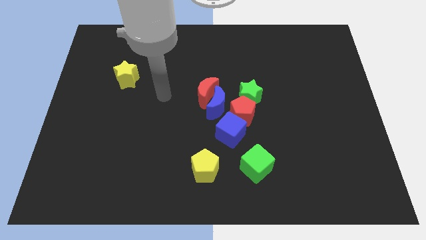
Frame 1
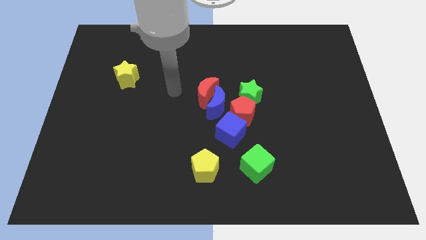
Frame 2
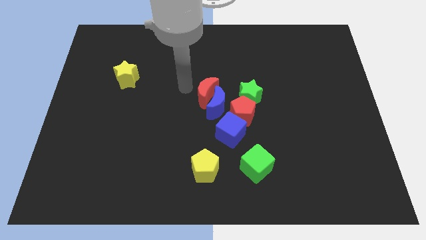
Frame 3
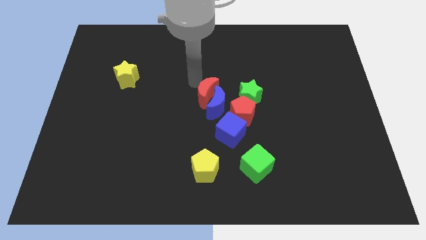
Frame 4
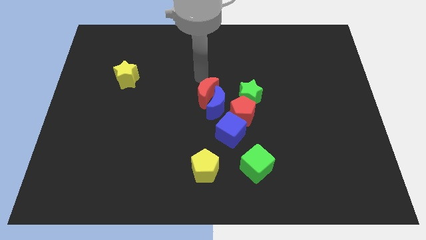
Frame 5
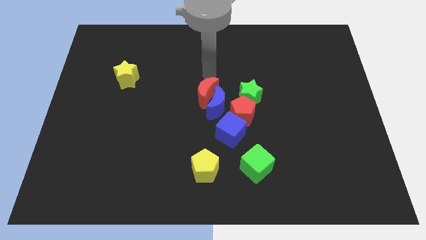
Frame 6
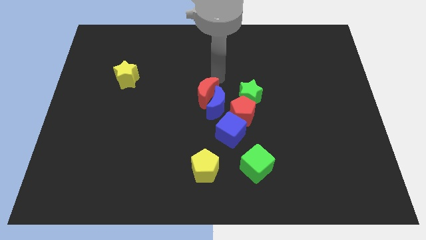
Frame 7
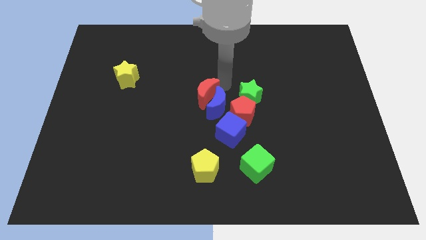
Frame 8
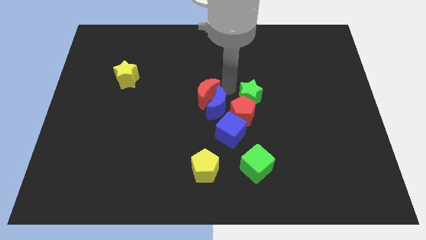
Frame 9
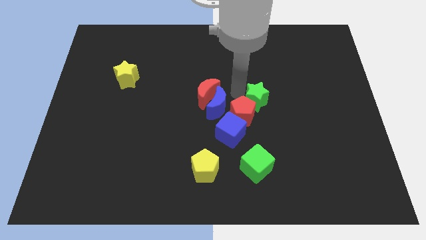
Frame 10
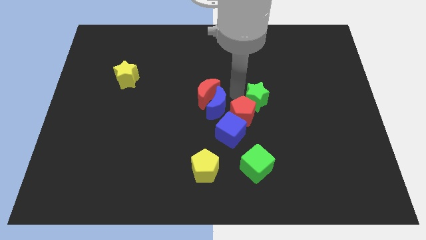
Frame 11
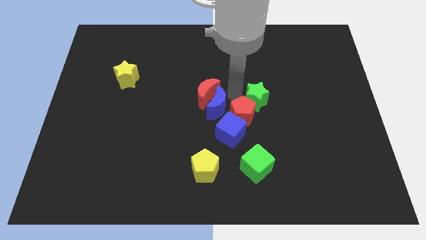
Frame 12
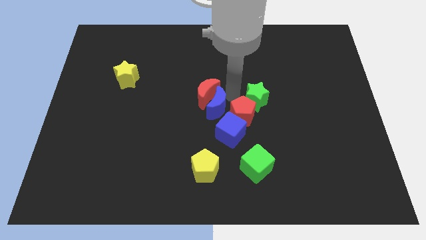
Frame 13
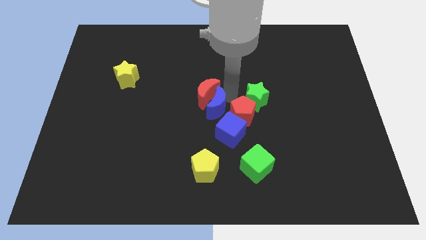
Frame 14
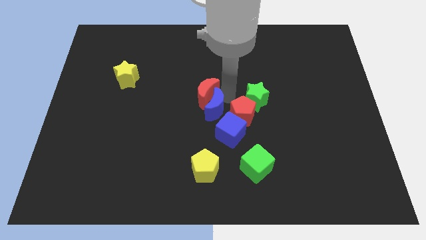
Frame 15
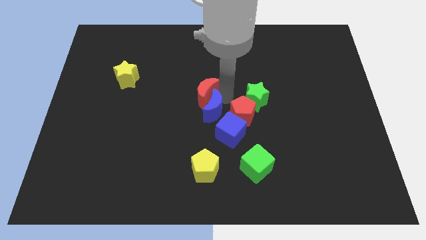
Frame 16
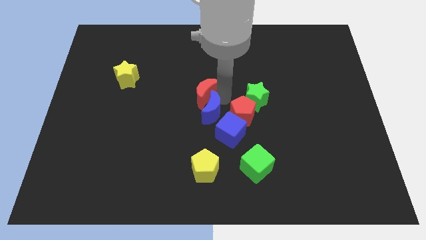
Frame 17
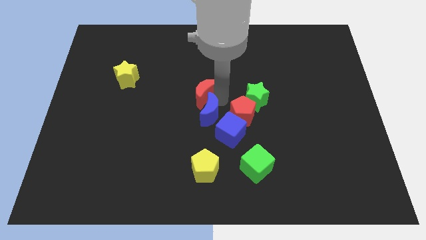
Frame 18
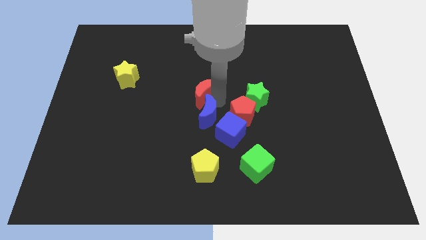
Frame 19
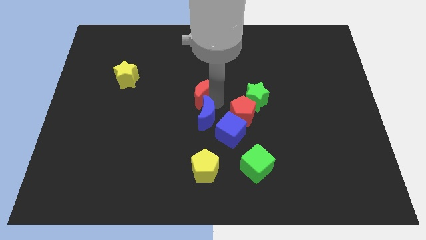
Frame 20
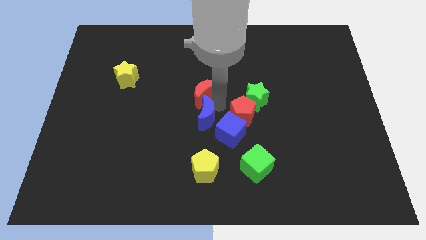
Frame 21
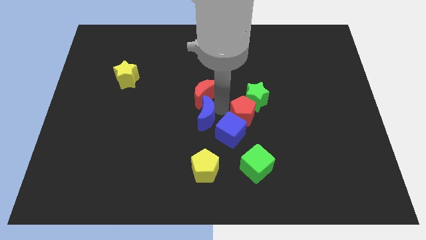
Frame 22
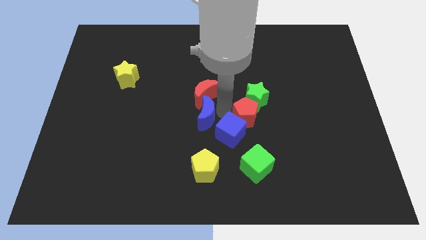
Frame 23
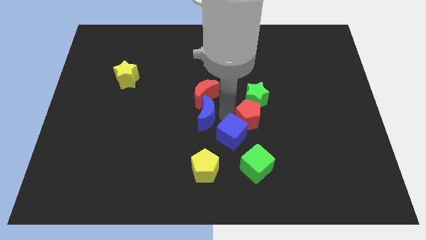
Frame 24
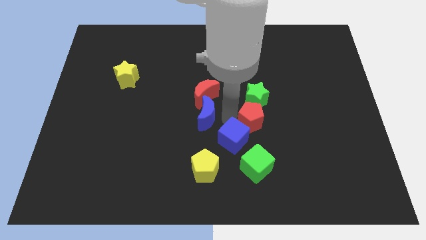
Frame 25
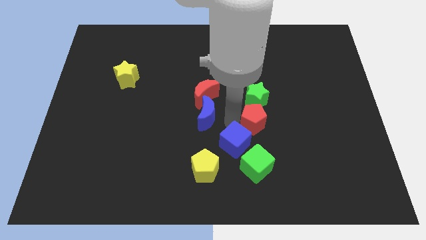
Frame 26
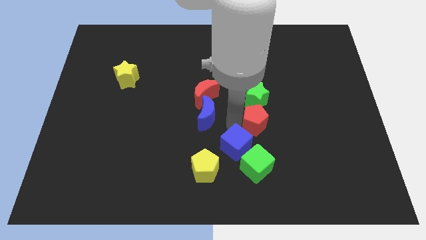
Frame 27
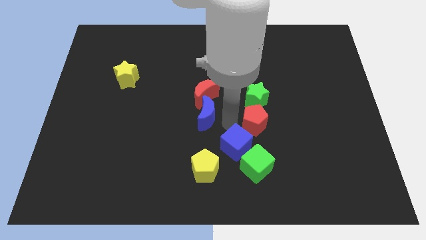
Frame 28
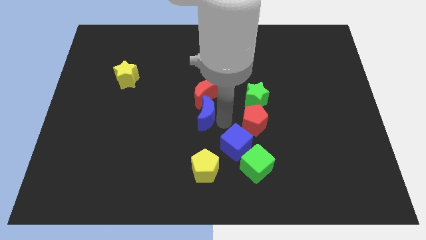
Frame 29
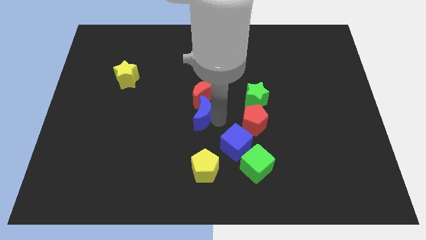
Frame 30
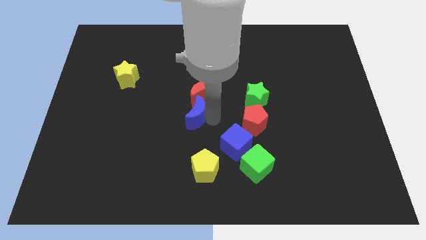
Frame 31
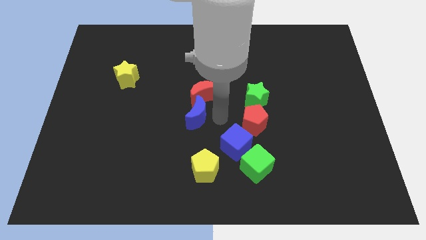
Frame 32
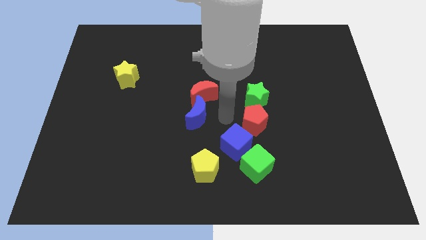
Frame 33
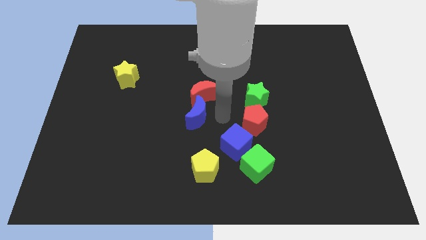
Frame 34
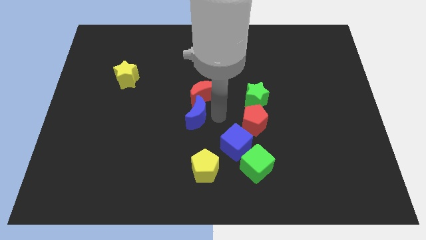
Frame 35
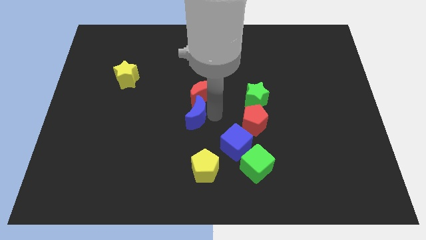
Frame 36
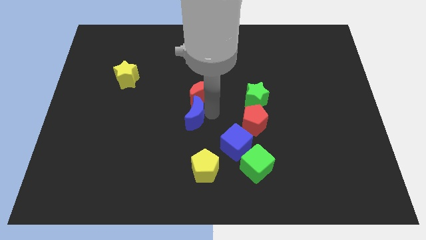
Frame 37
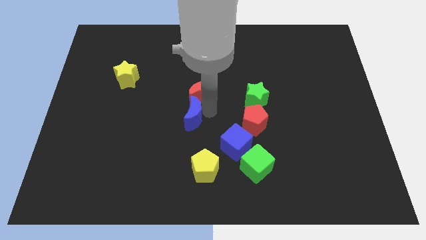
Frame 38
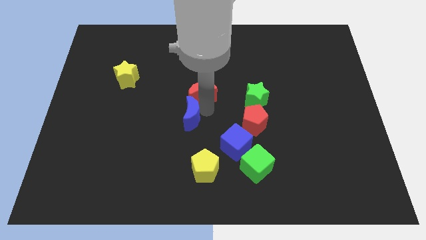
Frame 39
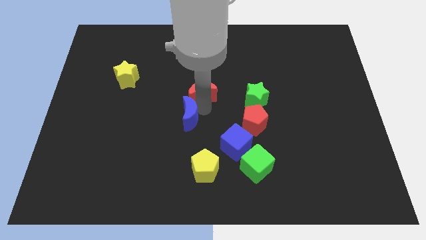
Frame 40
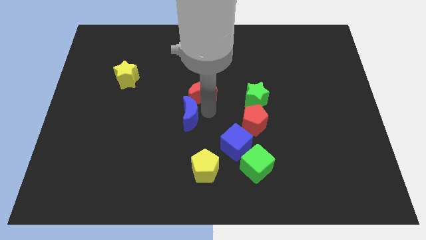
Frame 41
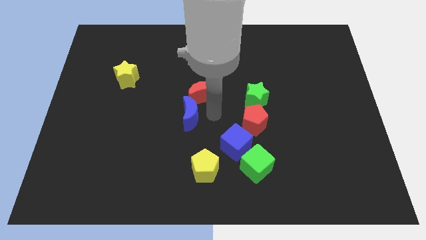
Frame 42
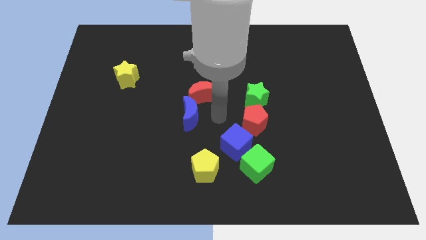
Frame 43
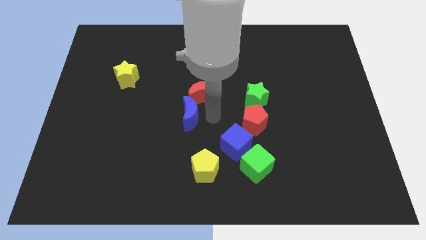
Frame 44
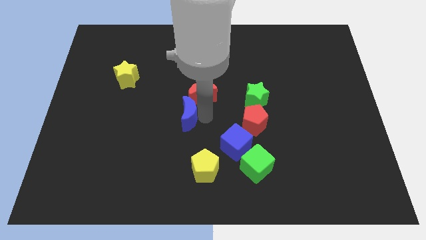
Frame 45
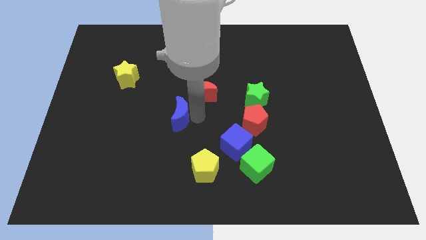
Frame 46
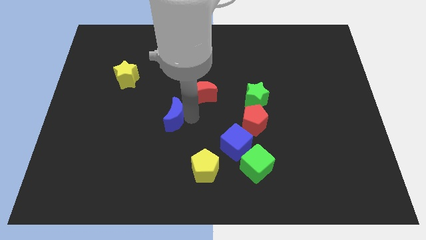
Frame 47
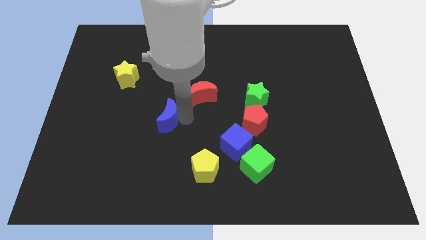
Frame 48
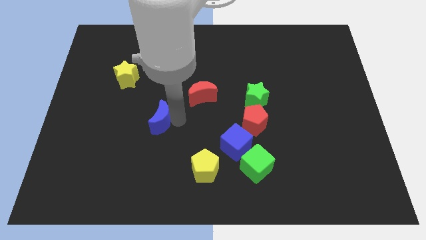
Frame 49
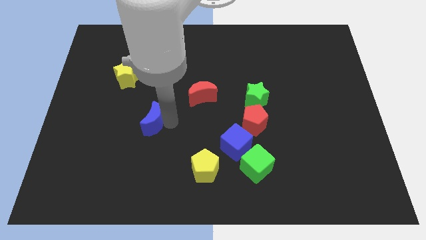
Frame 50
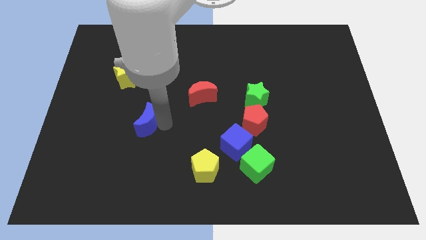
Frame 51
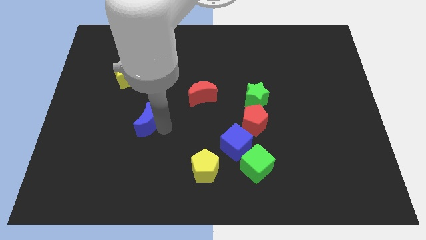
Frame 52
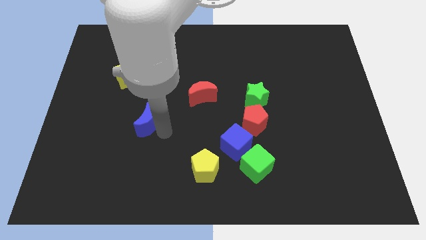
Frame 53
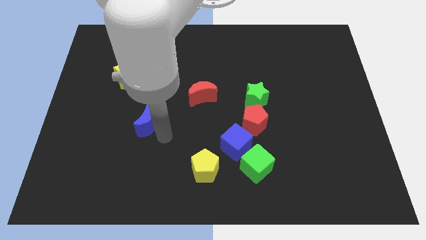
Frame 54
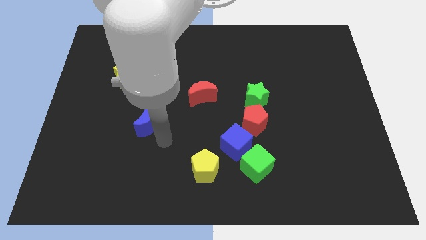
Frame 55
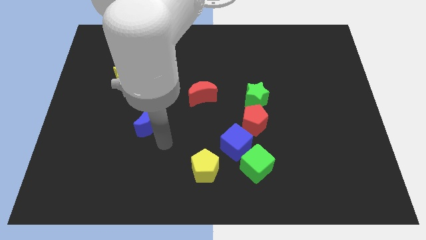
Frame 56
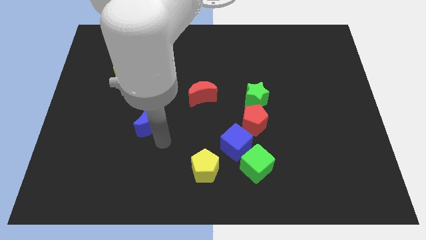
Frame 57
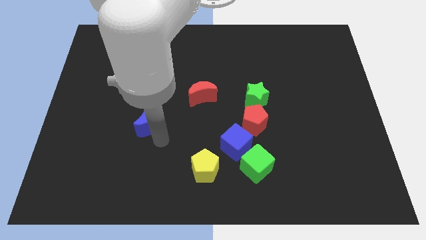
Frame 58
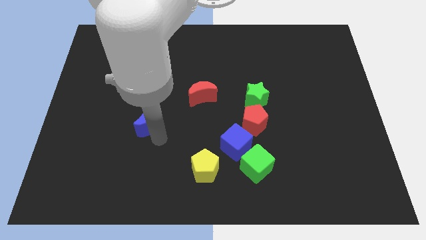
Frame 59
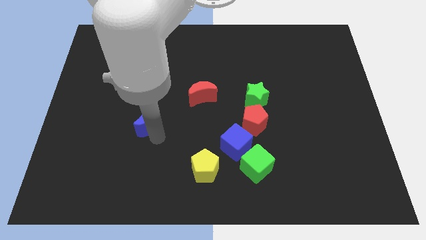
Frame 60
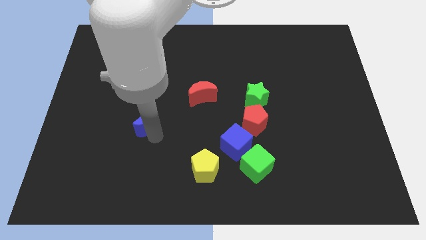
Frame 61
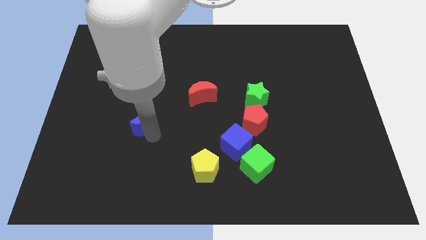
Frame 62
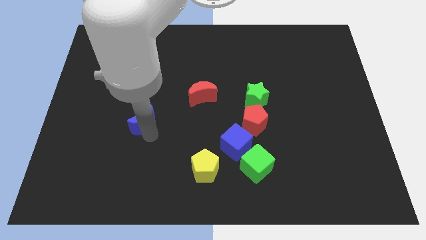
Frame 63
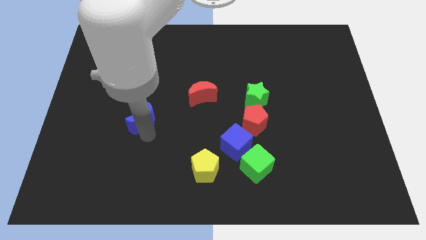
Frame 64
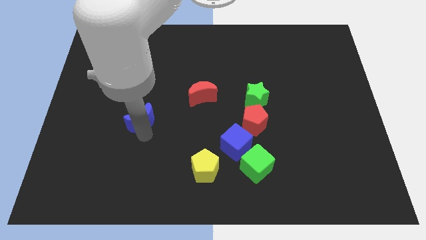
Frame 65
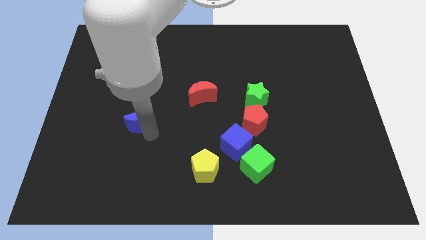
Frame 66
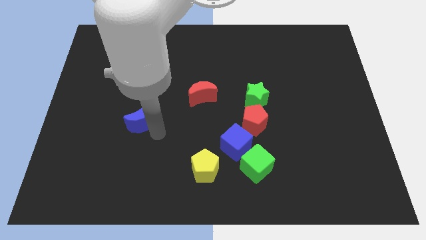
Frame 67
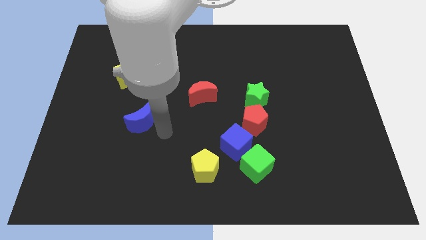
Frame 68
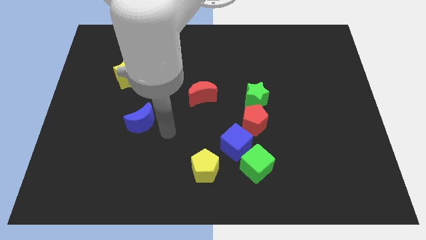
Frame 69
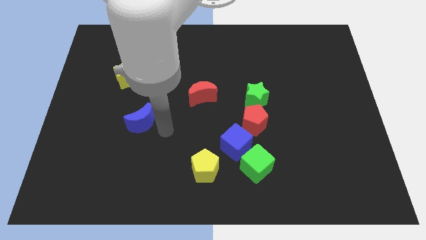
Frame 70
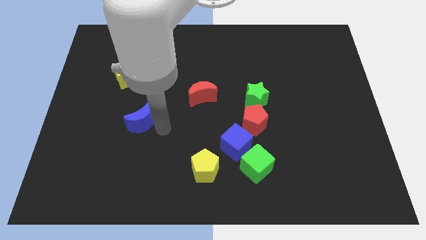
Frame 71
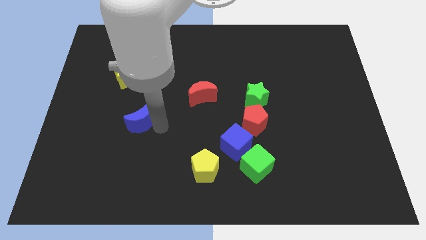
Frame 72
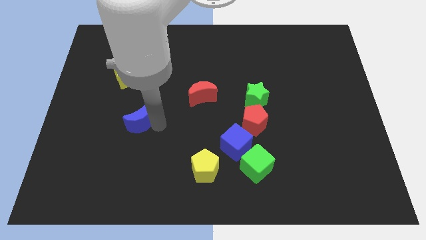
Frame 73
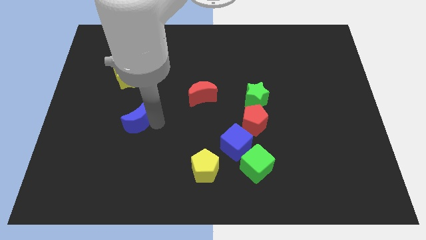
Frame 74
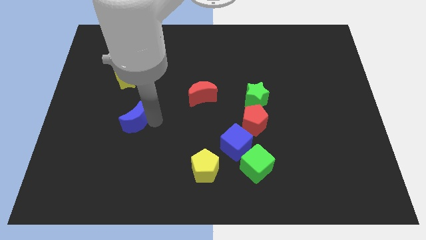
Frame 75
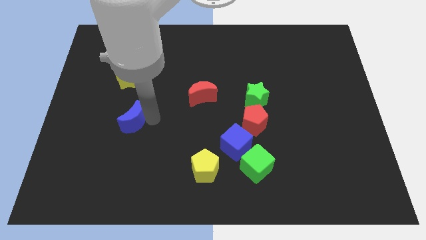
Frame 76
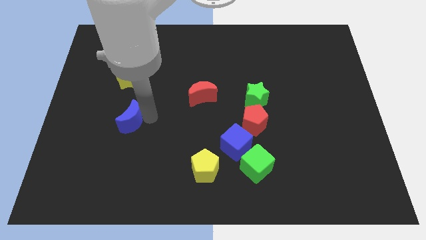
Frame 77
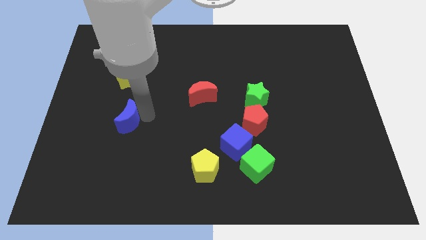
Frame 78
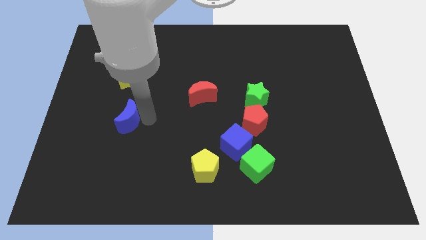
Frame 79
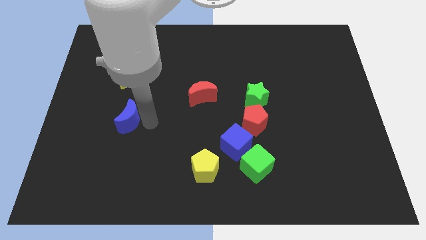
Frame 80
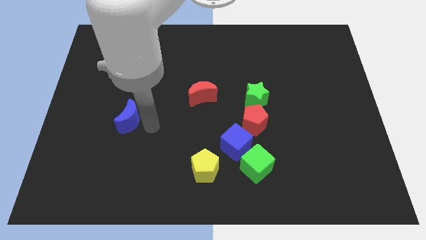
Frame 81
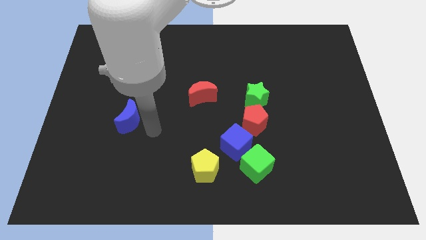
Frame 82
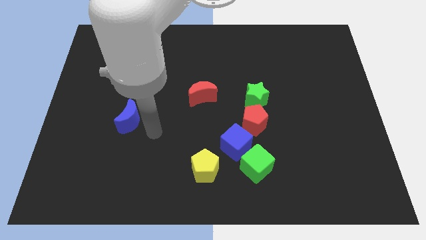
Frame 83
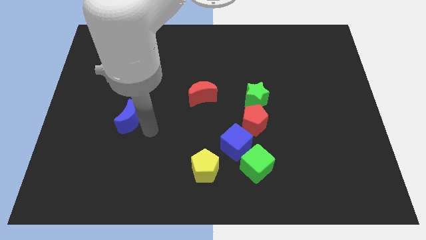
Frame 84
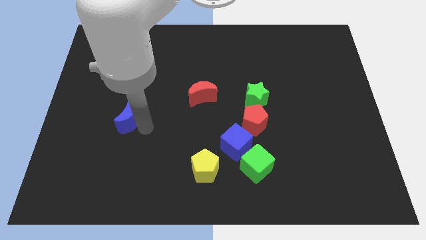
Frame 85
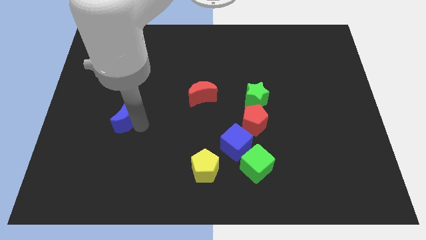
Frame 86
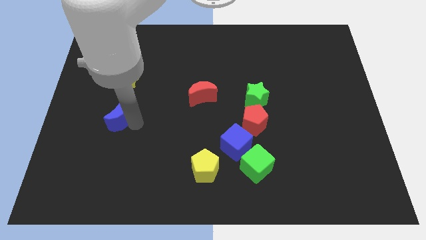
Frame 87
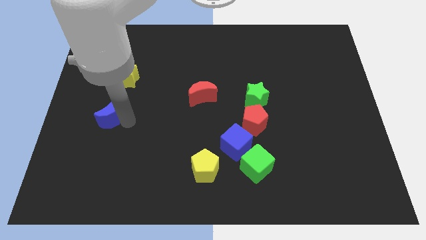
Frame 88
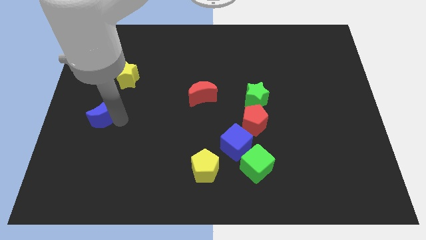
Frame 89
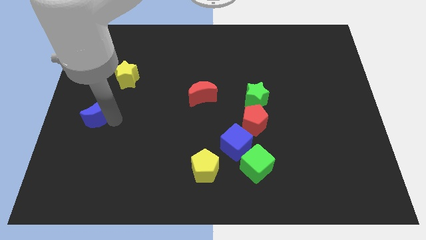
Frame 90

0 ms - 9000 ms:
slide the blue moon to the left side
